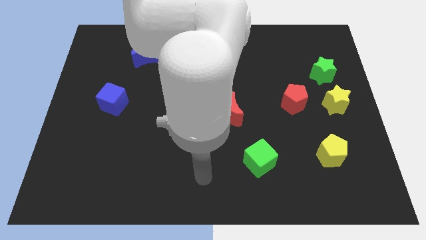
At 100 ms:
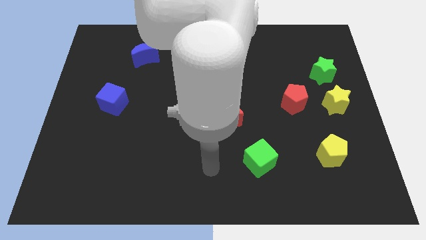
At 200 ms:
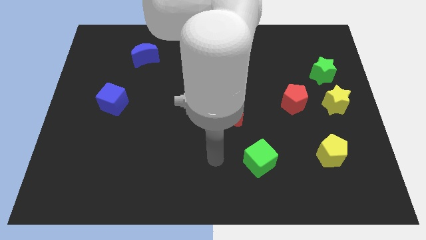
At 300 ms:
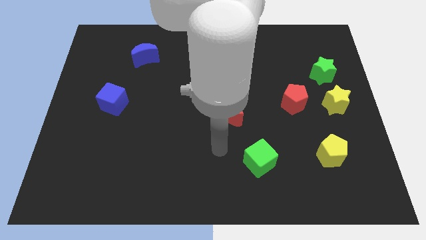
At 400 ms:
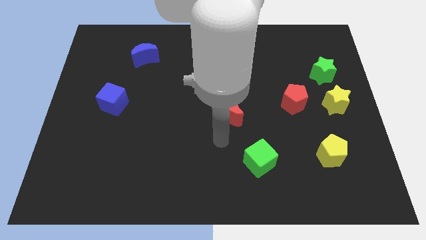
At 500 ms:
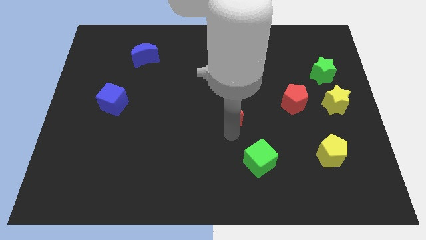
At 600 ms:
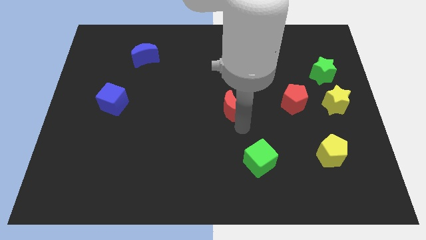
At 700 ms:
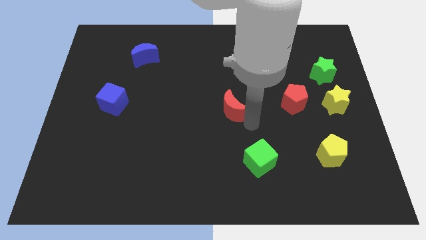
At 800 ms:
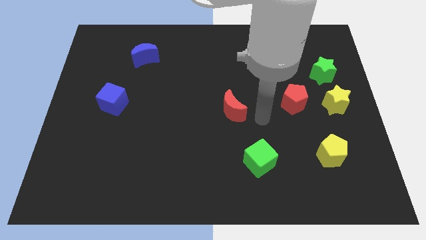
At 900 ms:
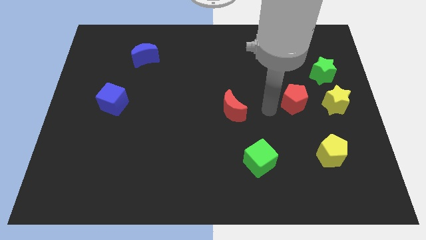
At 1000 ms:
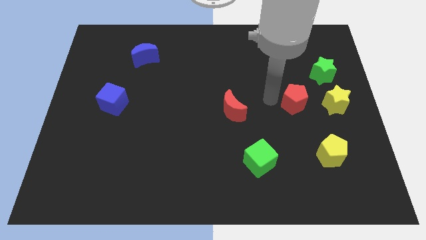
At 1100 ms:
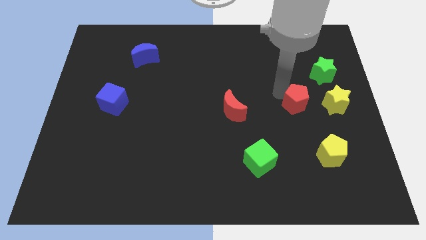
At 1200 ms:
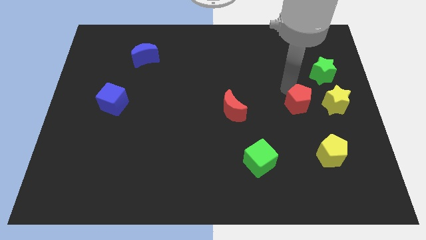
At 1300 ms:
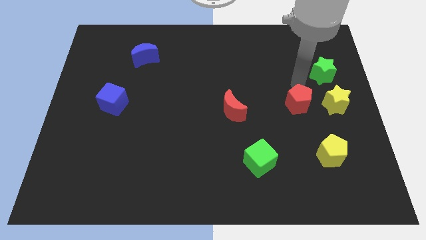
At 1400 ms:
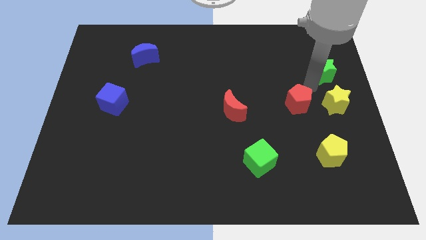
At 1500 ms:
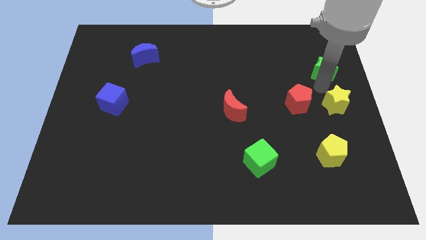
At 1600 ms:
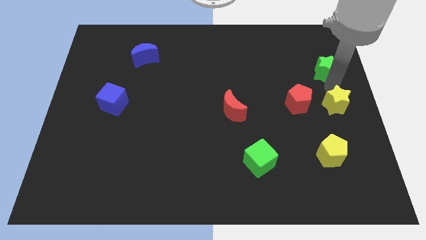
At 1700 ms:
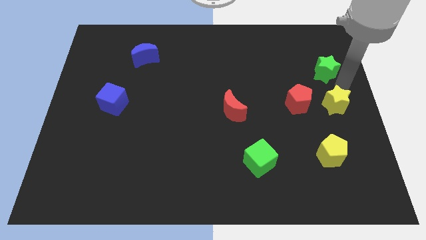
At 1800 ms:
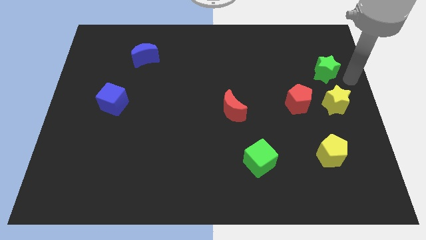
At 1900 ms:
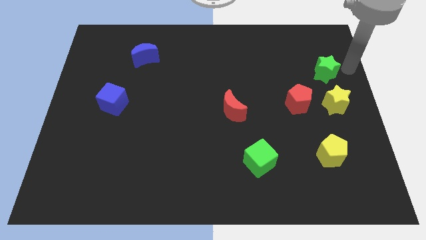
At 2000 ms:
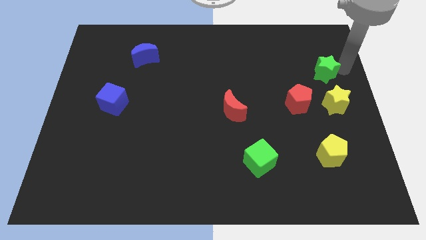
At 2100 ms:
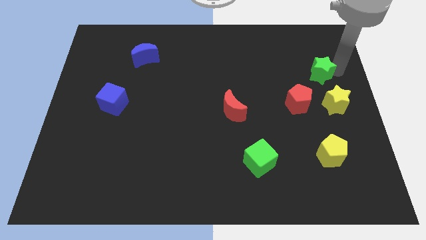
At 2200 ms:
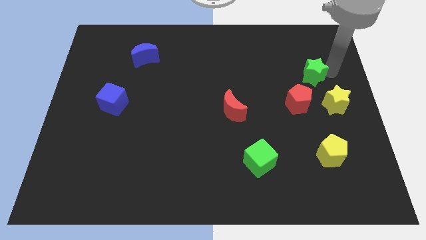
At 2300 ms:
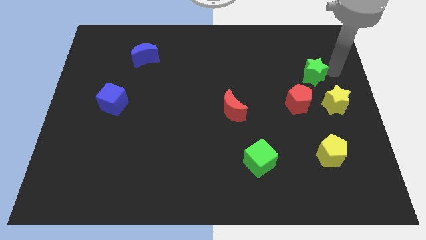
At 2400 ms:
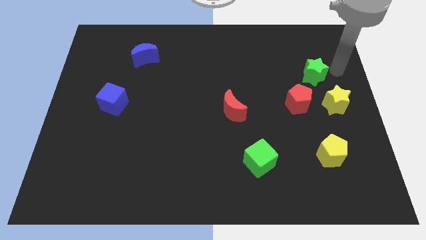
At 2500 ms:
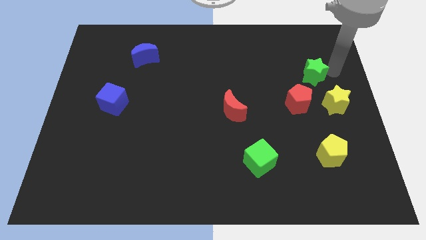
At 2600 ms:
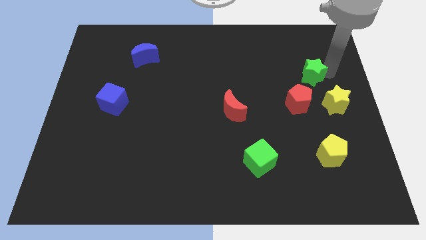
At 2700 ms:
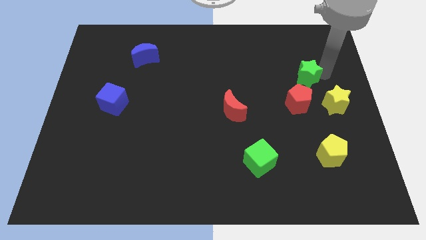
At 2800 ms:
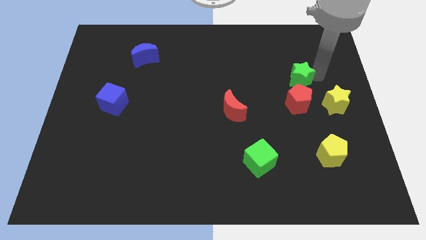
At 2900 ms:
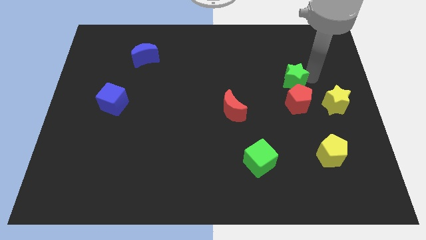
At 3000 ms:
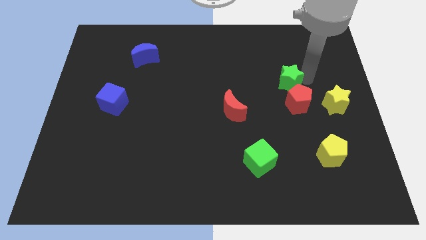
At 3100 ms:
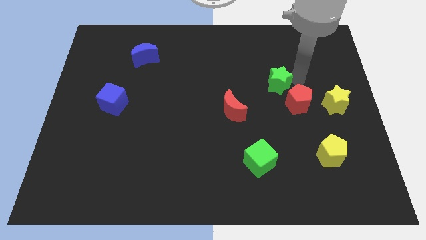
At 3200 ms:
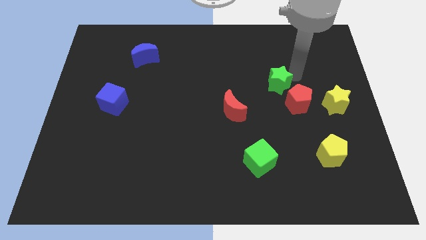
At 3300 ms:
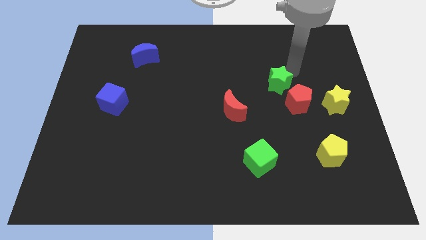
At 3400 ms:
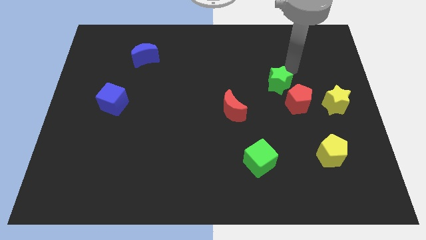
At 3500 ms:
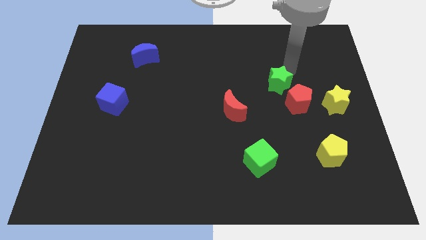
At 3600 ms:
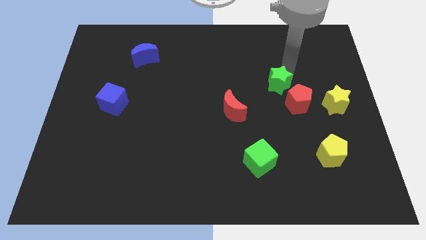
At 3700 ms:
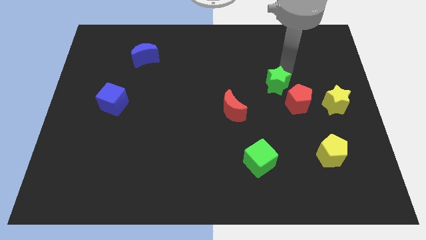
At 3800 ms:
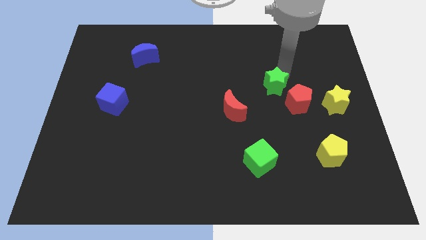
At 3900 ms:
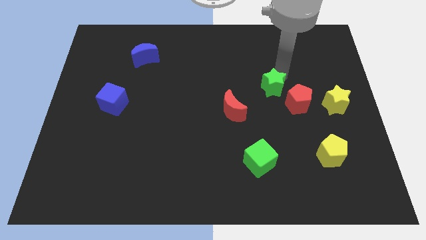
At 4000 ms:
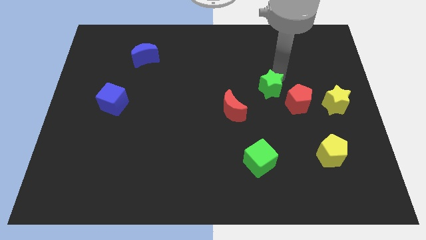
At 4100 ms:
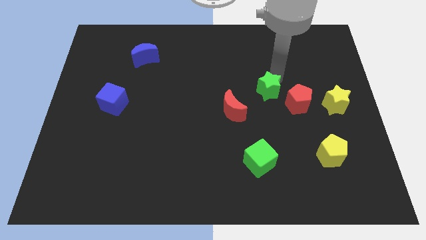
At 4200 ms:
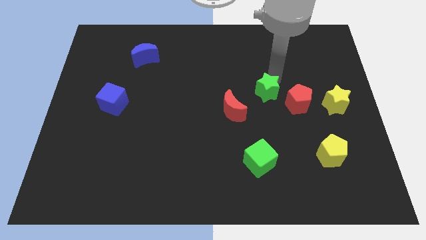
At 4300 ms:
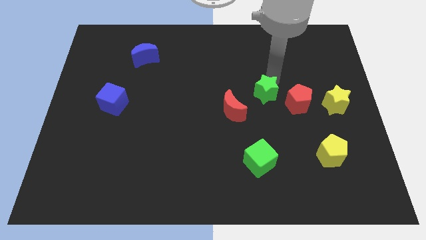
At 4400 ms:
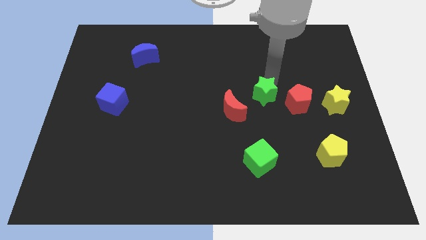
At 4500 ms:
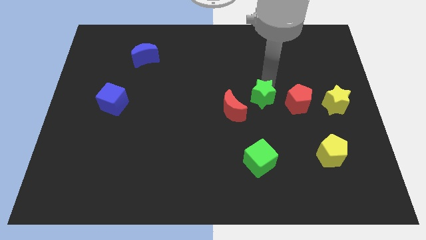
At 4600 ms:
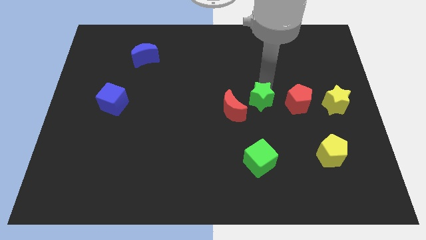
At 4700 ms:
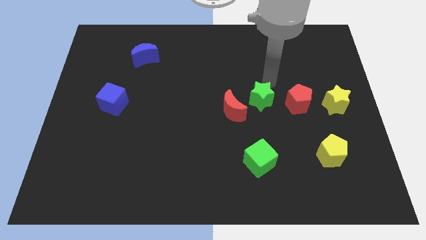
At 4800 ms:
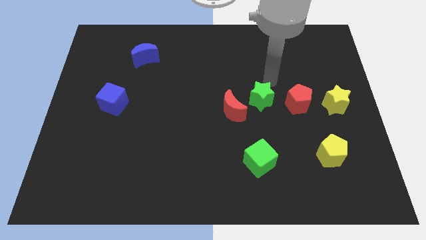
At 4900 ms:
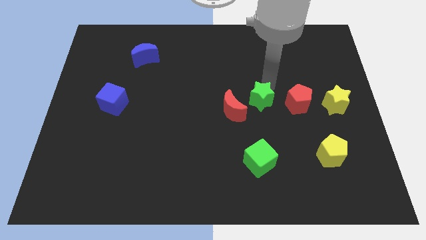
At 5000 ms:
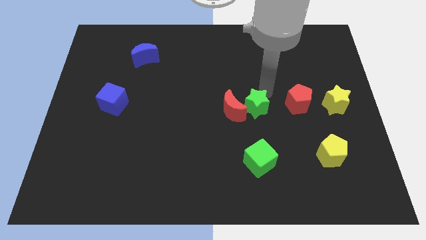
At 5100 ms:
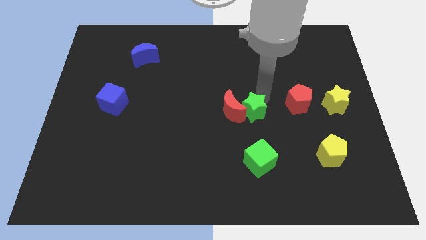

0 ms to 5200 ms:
slide the green star down and left

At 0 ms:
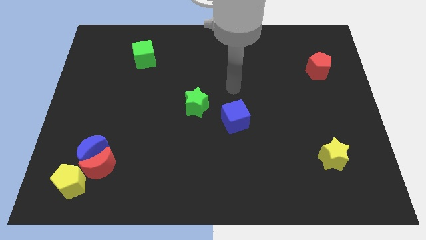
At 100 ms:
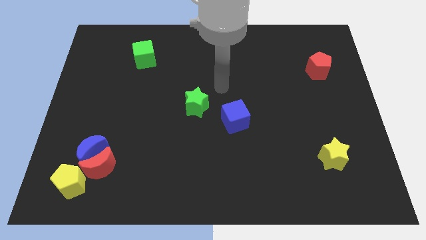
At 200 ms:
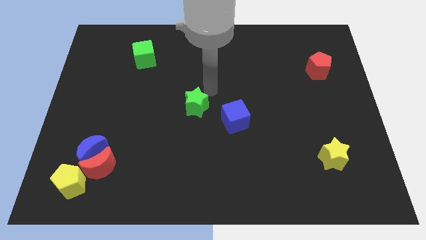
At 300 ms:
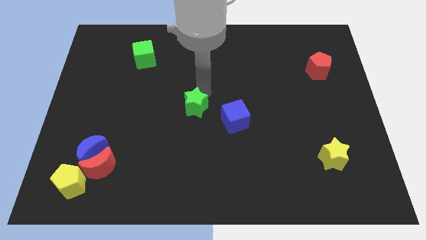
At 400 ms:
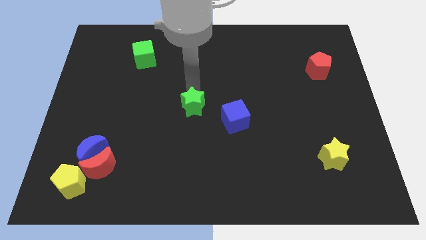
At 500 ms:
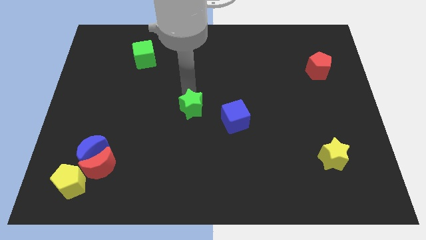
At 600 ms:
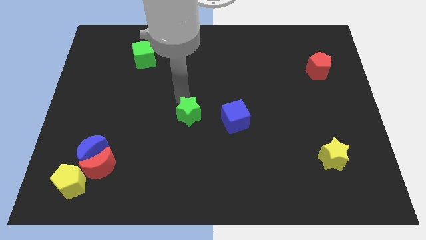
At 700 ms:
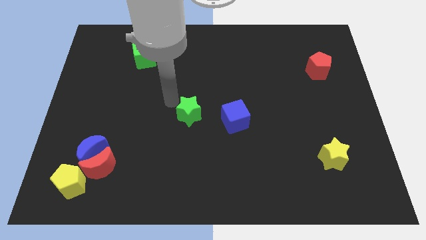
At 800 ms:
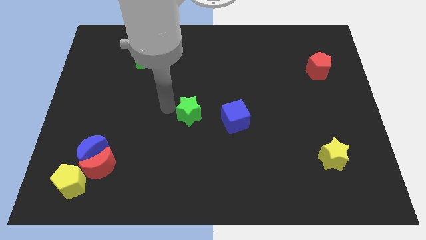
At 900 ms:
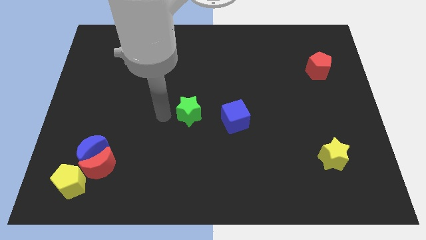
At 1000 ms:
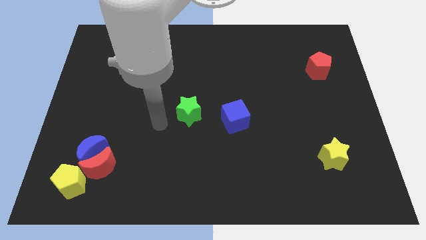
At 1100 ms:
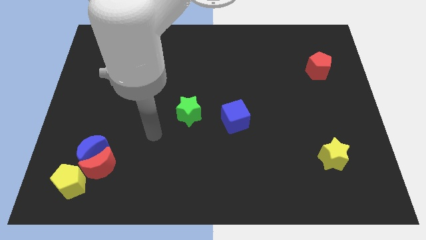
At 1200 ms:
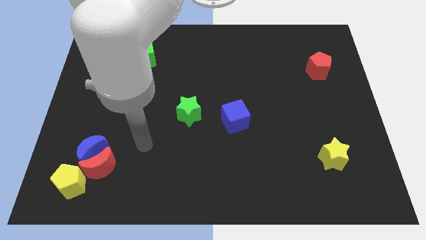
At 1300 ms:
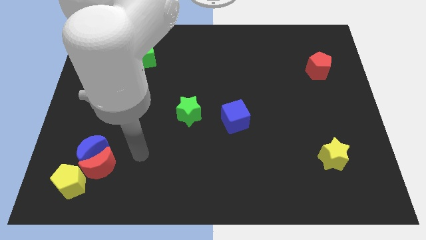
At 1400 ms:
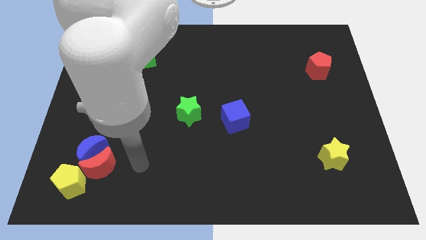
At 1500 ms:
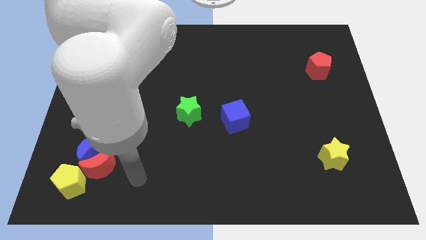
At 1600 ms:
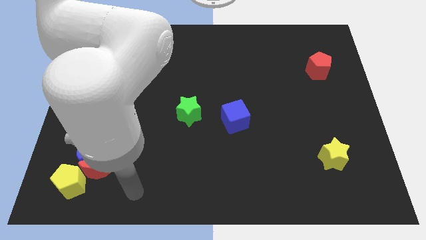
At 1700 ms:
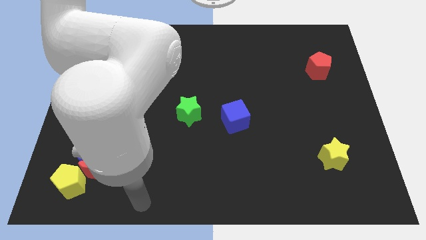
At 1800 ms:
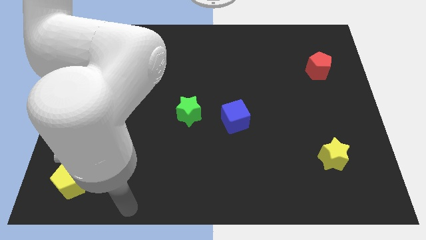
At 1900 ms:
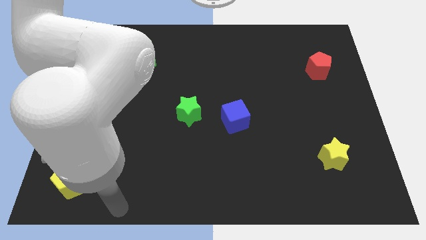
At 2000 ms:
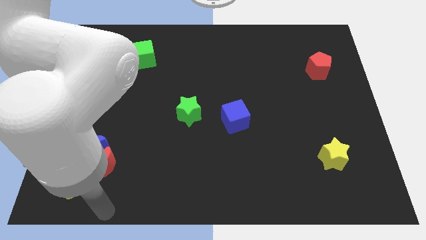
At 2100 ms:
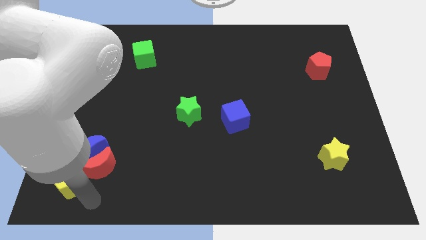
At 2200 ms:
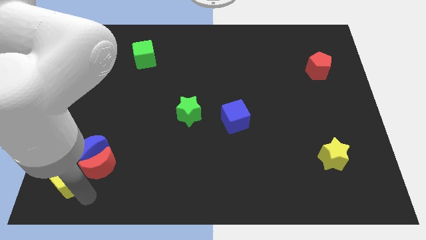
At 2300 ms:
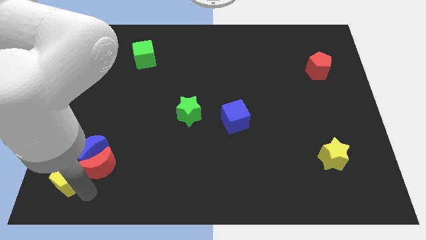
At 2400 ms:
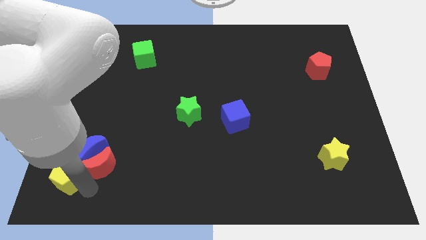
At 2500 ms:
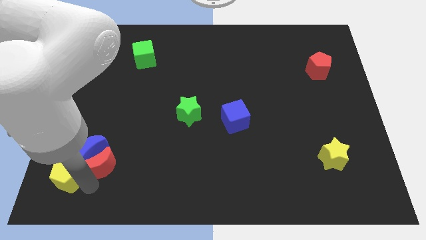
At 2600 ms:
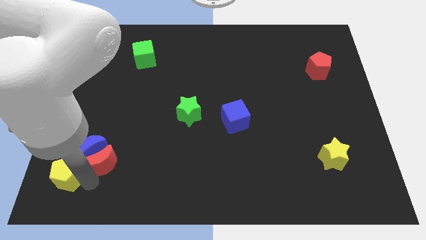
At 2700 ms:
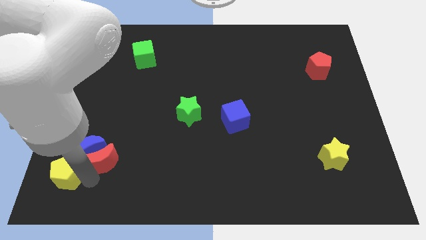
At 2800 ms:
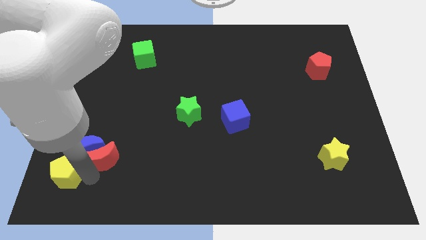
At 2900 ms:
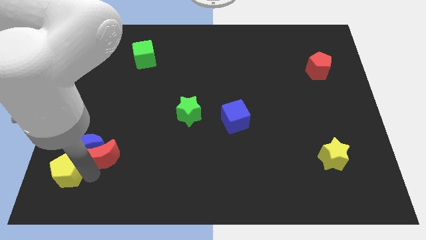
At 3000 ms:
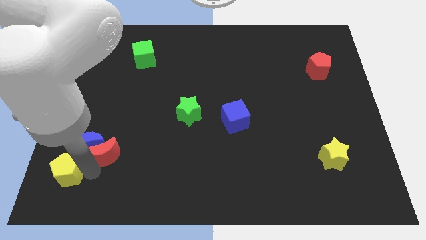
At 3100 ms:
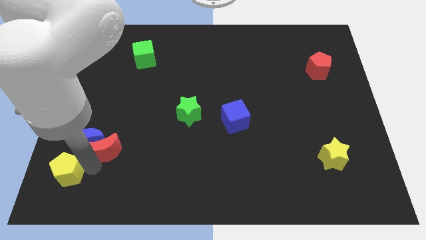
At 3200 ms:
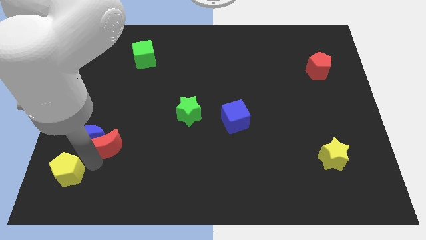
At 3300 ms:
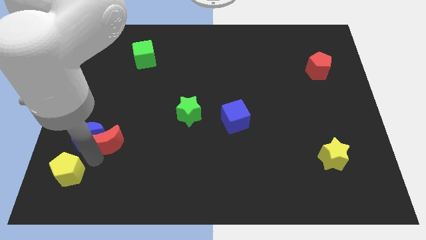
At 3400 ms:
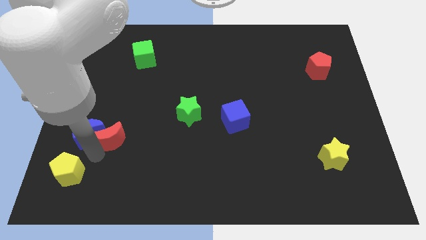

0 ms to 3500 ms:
slightly slide the red moon upwards
